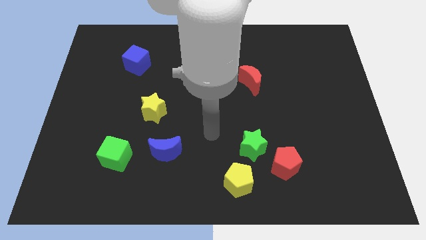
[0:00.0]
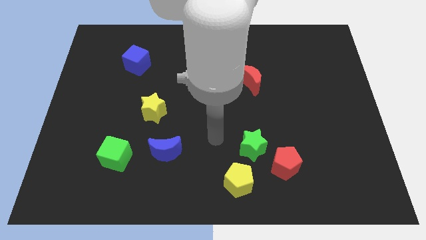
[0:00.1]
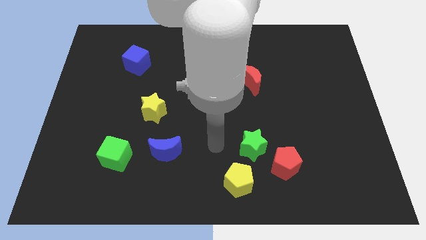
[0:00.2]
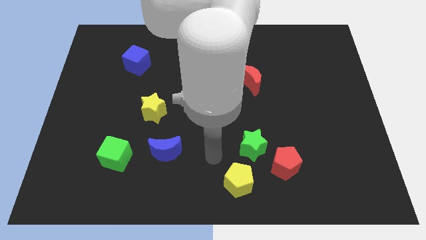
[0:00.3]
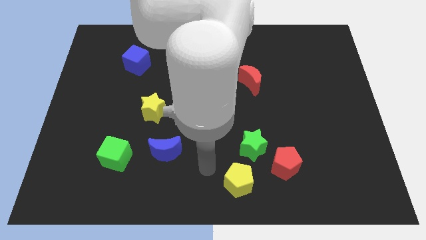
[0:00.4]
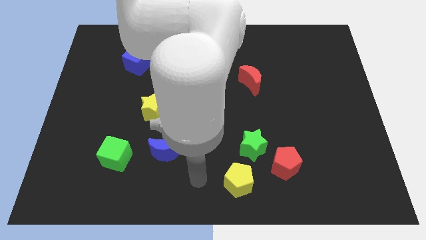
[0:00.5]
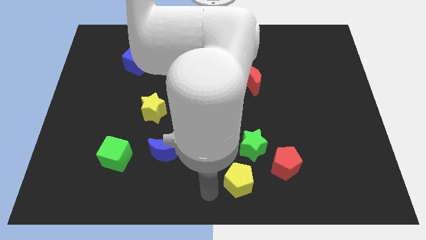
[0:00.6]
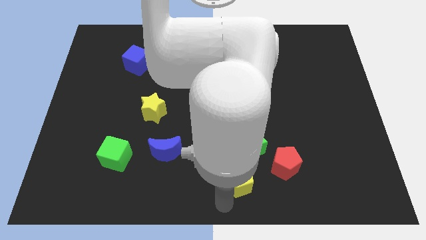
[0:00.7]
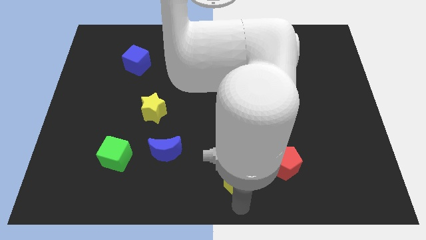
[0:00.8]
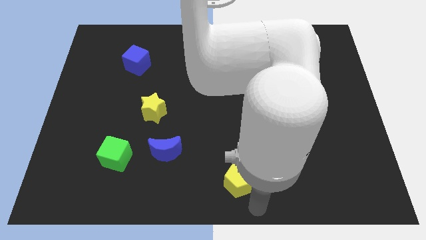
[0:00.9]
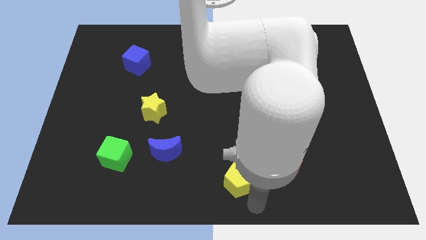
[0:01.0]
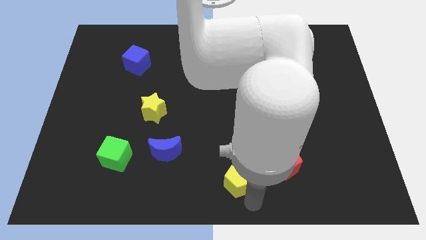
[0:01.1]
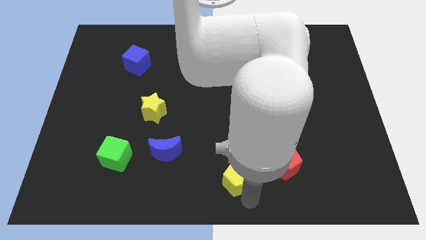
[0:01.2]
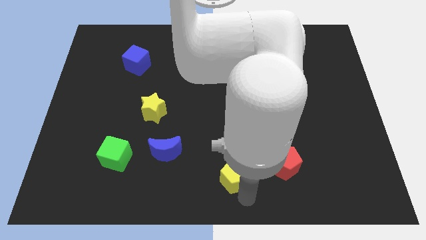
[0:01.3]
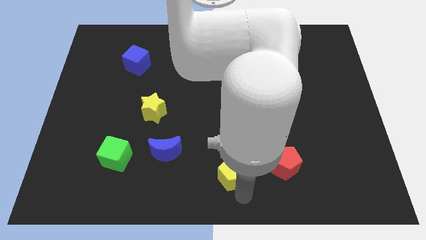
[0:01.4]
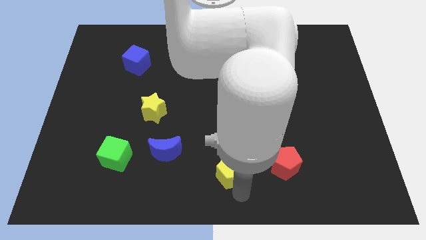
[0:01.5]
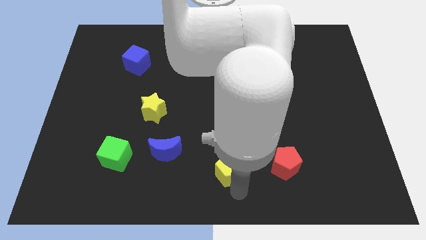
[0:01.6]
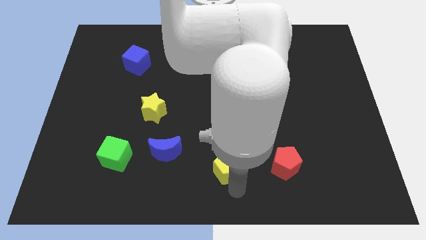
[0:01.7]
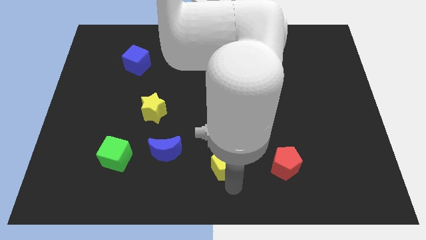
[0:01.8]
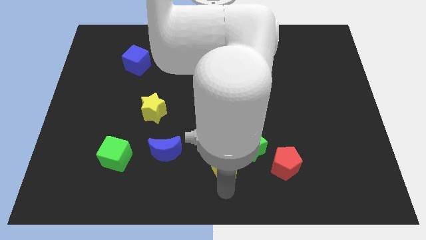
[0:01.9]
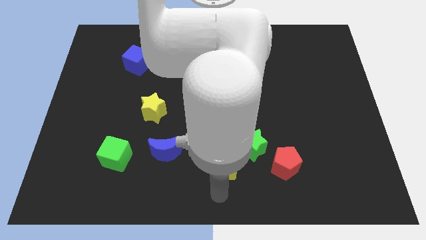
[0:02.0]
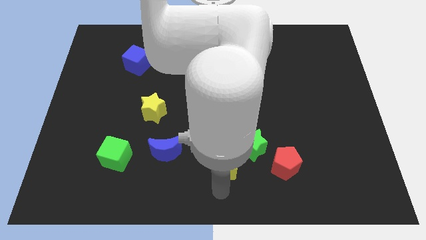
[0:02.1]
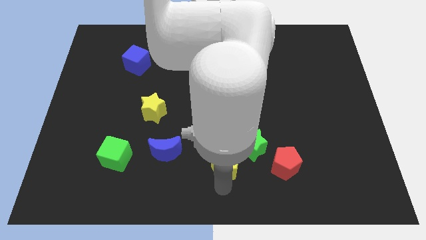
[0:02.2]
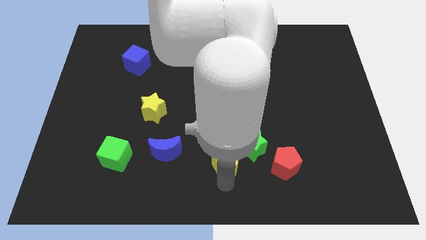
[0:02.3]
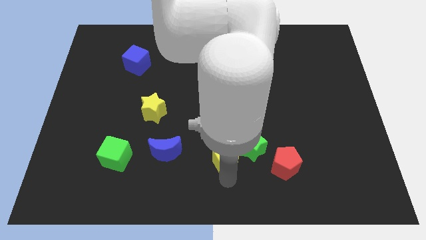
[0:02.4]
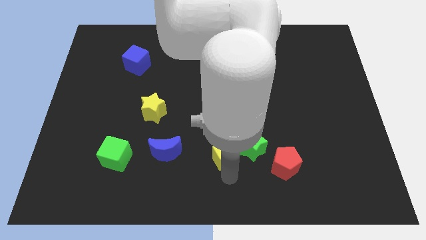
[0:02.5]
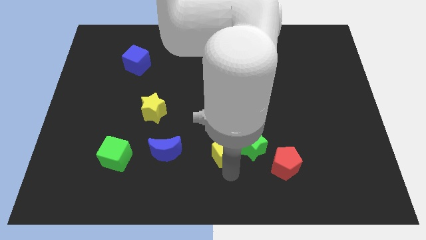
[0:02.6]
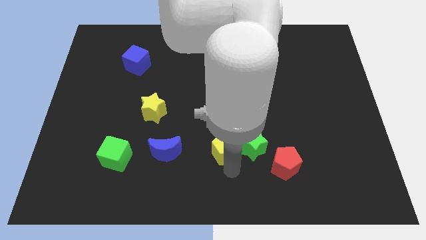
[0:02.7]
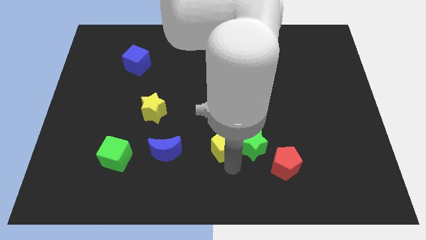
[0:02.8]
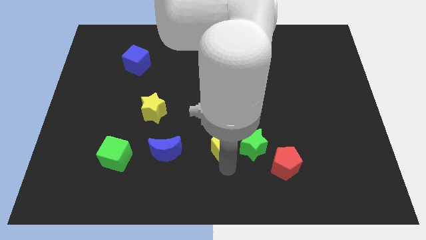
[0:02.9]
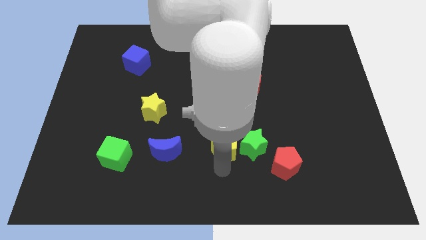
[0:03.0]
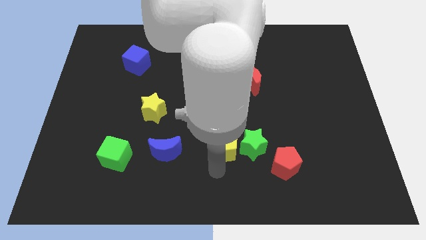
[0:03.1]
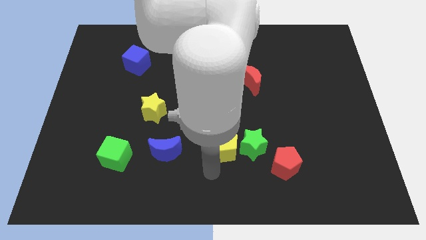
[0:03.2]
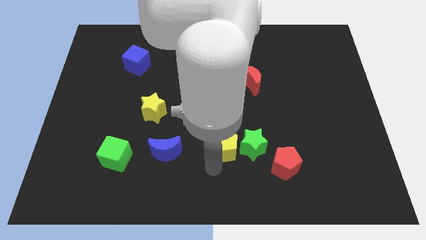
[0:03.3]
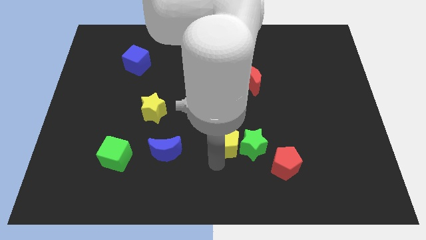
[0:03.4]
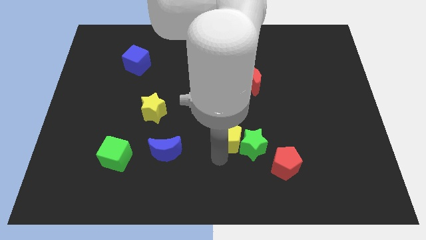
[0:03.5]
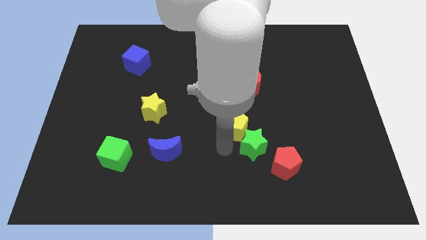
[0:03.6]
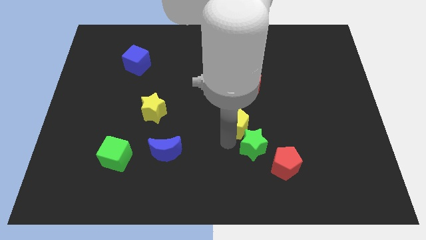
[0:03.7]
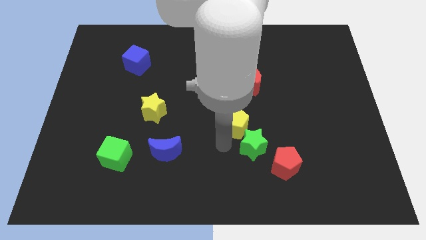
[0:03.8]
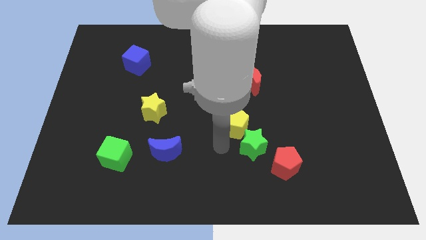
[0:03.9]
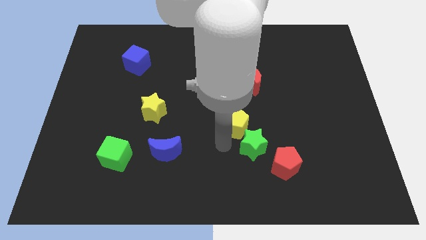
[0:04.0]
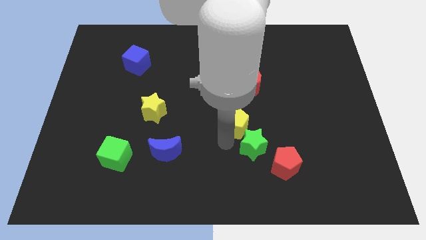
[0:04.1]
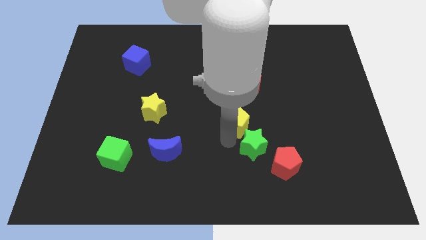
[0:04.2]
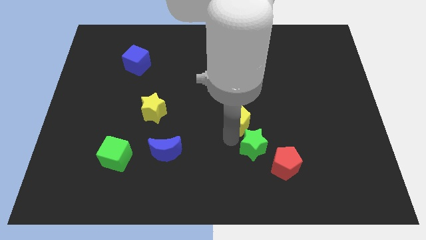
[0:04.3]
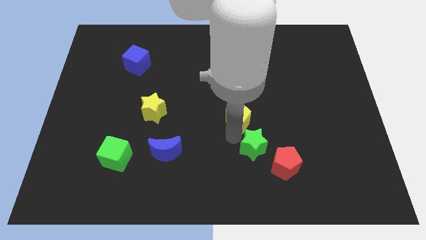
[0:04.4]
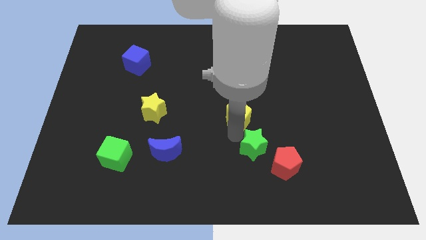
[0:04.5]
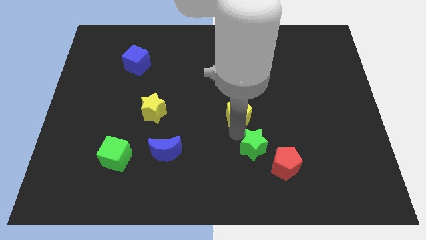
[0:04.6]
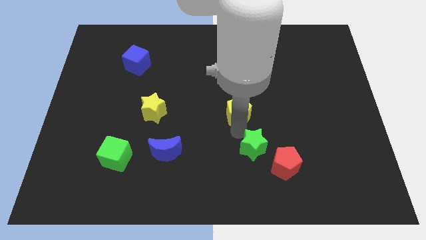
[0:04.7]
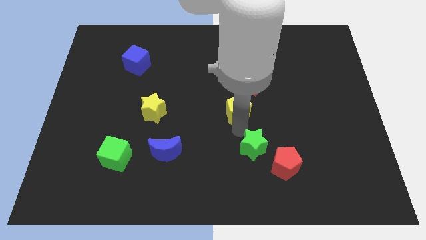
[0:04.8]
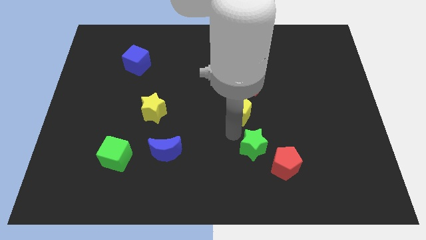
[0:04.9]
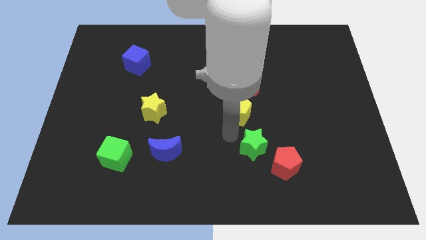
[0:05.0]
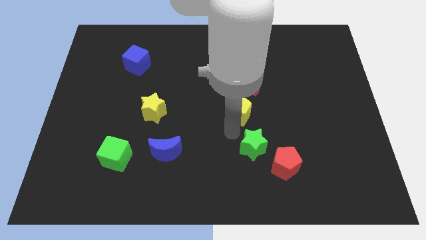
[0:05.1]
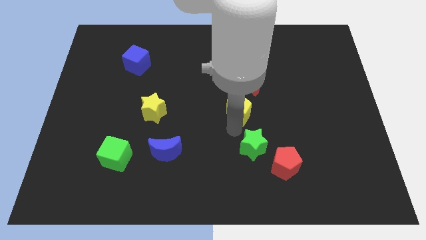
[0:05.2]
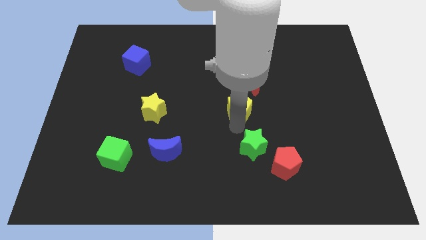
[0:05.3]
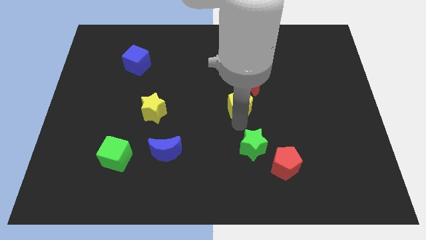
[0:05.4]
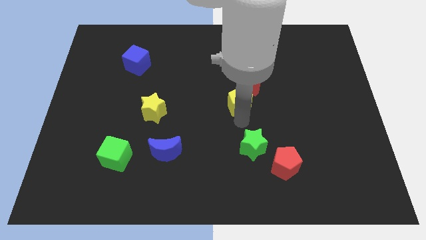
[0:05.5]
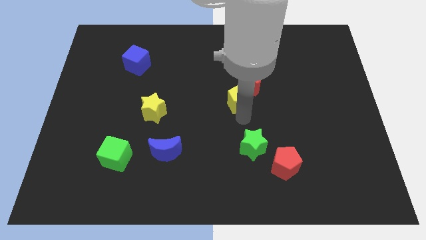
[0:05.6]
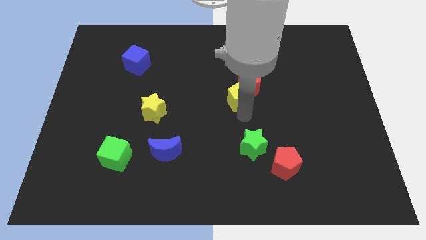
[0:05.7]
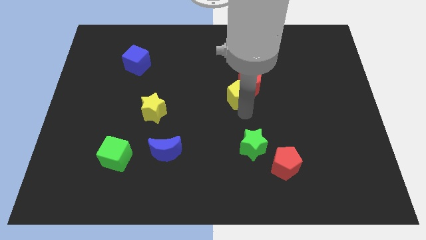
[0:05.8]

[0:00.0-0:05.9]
slide the yellow pentagon next to the red moon

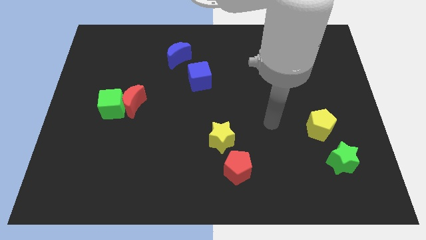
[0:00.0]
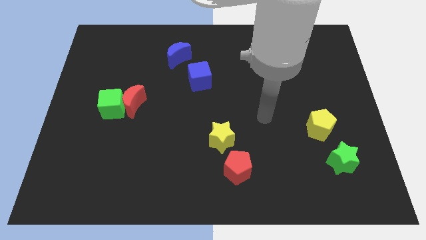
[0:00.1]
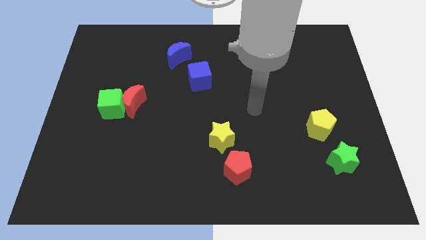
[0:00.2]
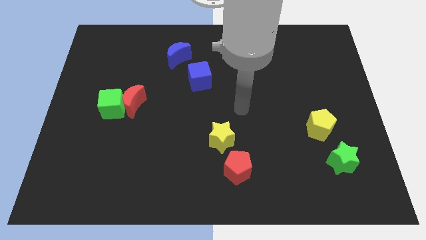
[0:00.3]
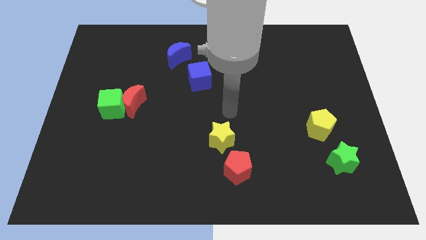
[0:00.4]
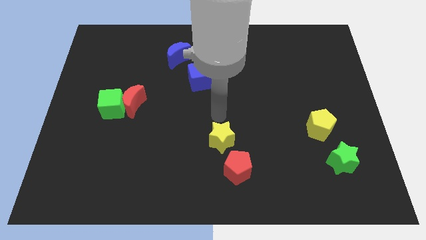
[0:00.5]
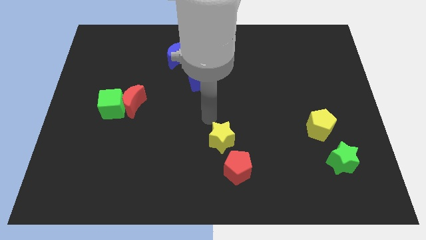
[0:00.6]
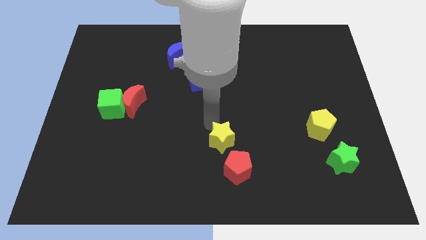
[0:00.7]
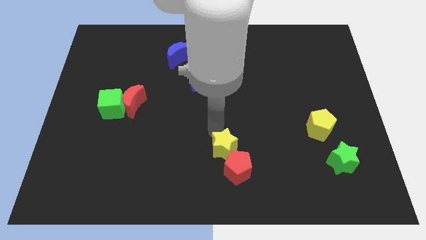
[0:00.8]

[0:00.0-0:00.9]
push the yellow star next to the red pentagon

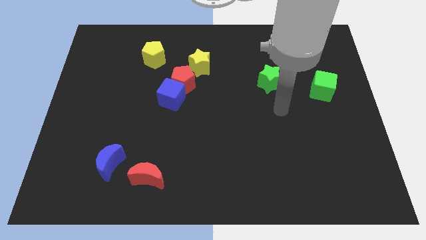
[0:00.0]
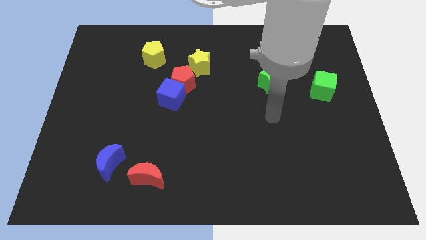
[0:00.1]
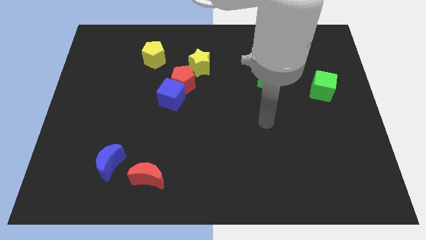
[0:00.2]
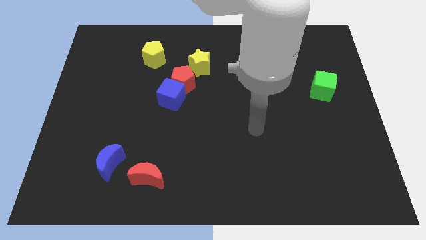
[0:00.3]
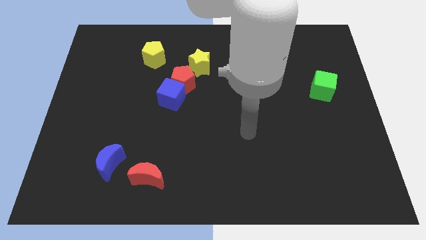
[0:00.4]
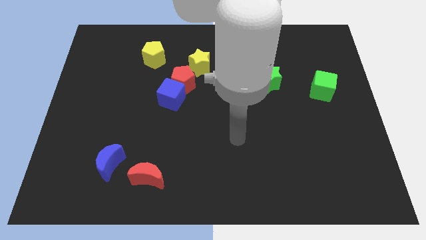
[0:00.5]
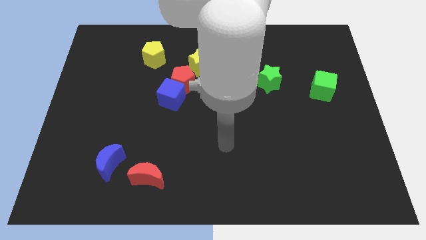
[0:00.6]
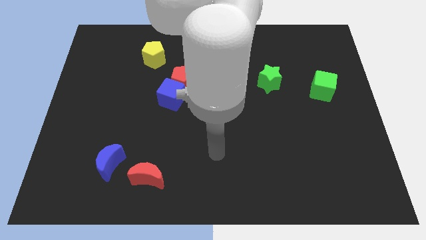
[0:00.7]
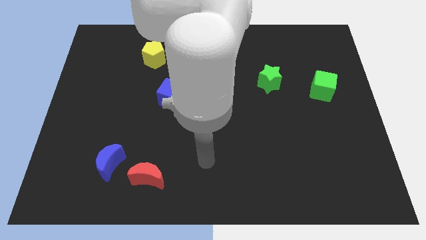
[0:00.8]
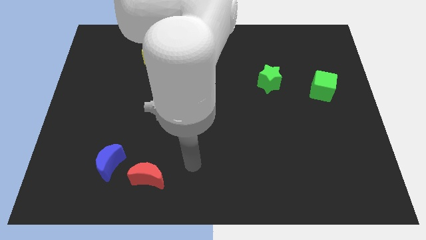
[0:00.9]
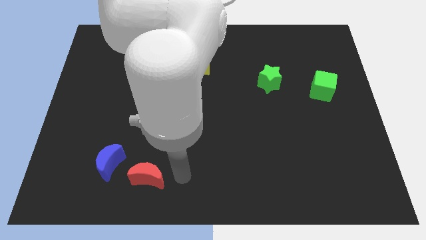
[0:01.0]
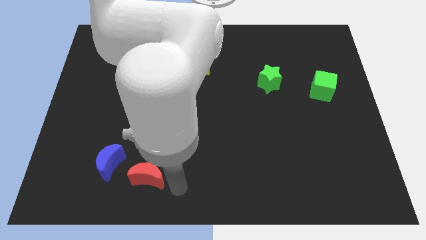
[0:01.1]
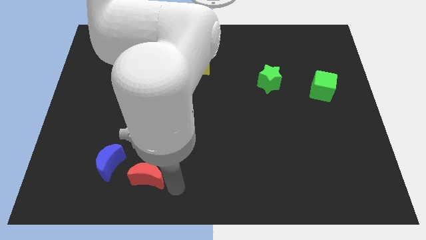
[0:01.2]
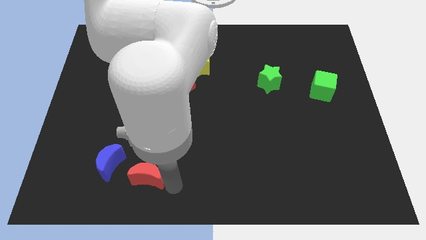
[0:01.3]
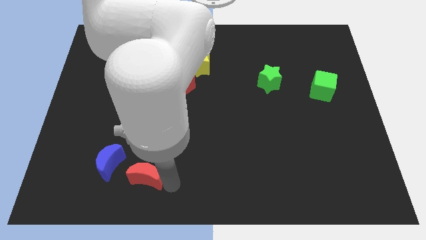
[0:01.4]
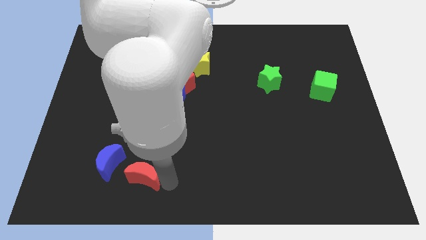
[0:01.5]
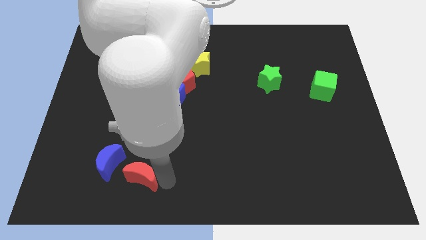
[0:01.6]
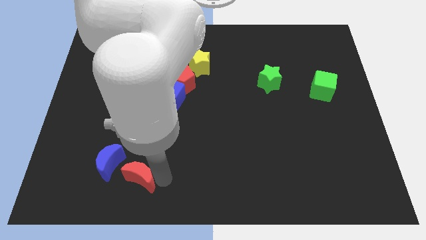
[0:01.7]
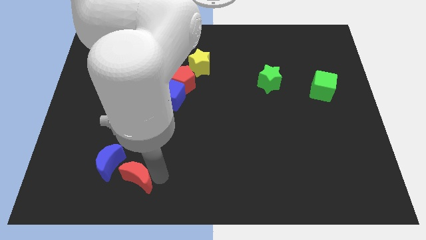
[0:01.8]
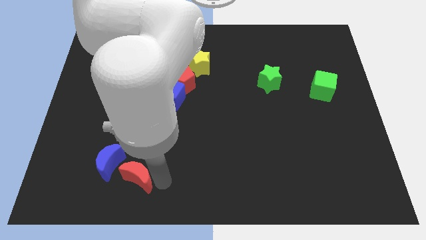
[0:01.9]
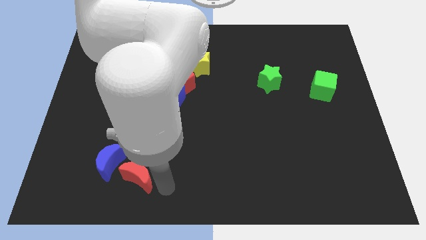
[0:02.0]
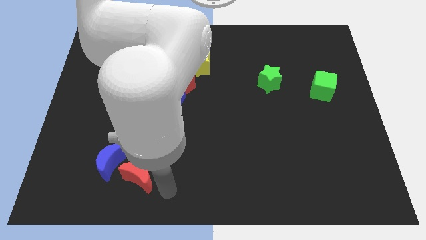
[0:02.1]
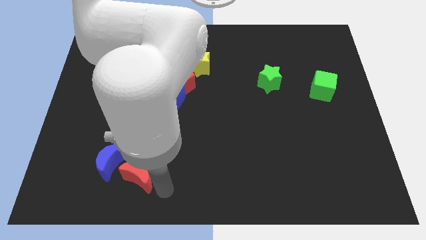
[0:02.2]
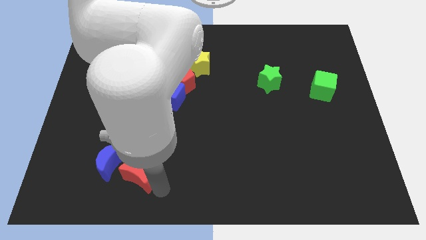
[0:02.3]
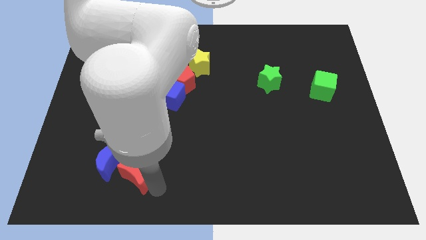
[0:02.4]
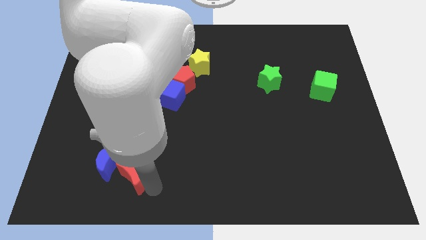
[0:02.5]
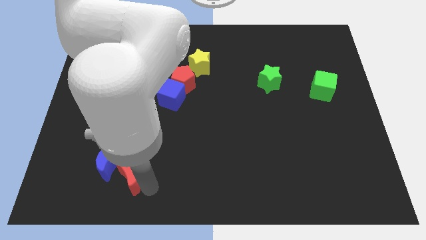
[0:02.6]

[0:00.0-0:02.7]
push the red moon towards the blue moon
